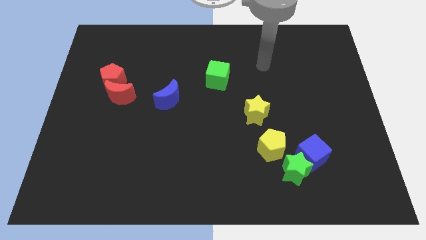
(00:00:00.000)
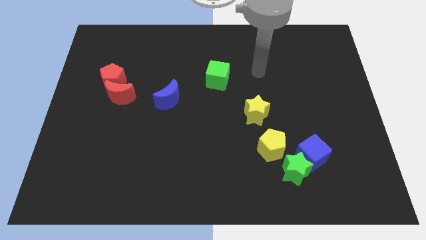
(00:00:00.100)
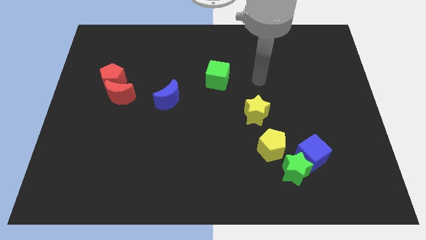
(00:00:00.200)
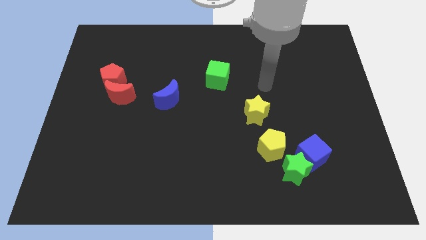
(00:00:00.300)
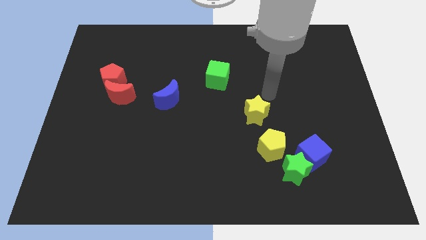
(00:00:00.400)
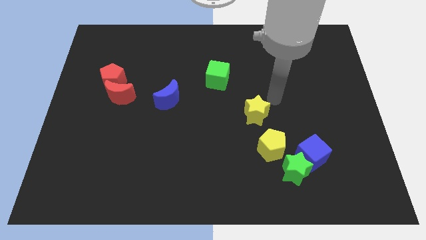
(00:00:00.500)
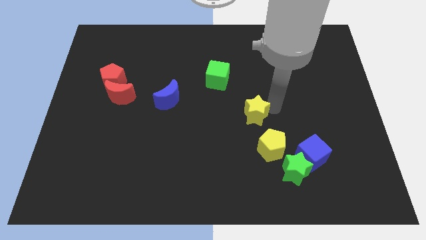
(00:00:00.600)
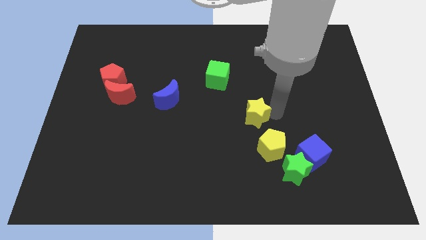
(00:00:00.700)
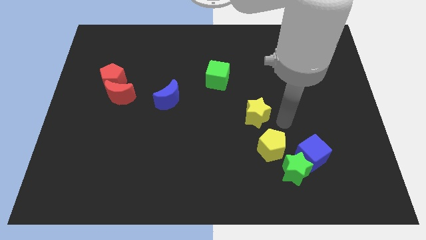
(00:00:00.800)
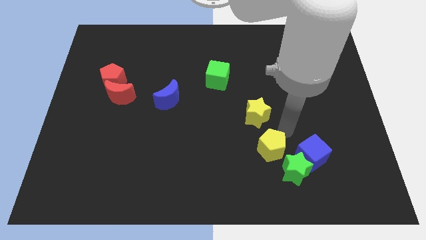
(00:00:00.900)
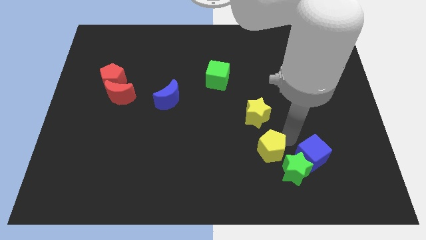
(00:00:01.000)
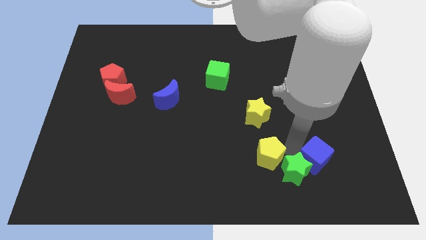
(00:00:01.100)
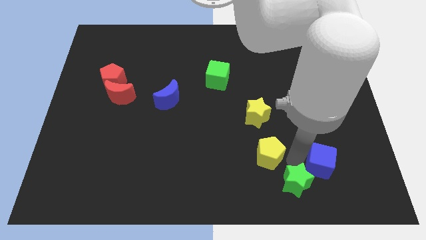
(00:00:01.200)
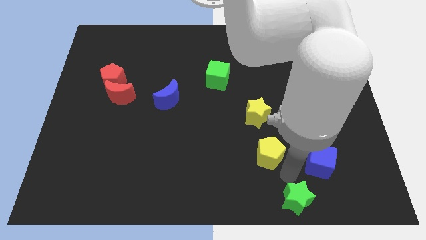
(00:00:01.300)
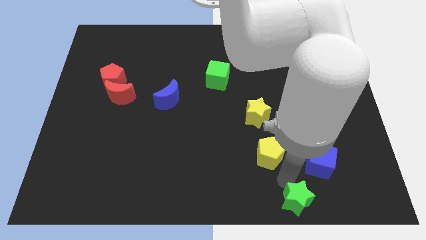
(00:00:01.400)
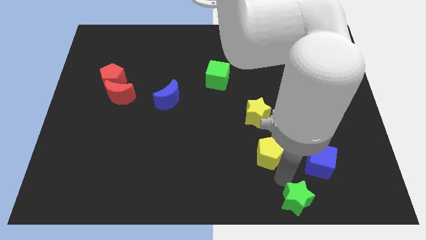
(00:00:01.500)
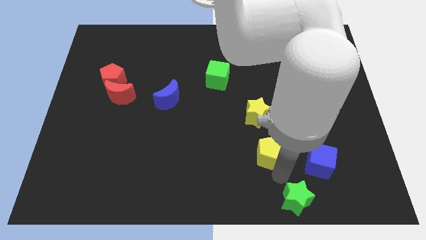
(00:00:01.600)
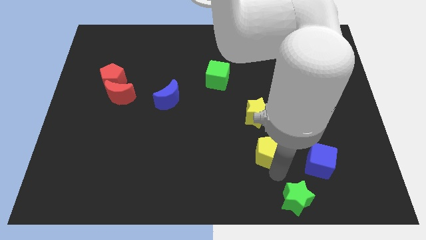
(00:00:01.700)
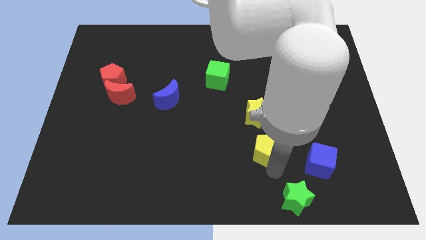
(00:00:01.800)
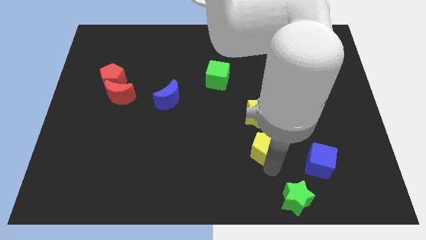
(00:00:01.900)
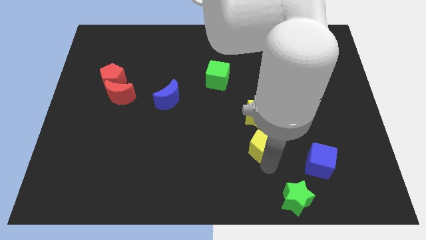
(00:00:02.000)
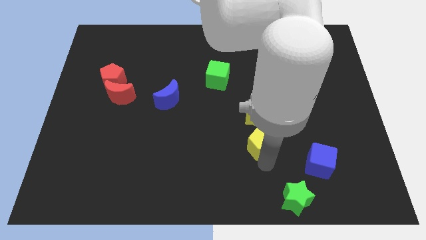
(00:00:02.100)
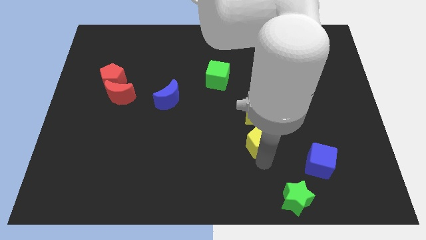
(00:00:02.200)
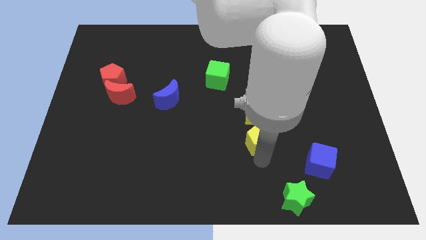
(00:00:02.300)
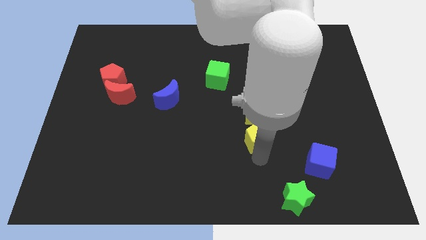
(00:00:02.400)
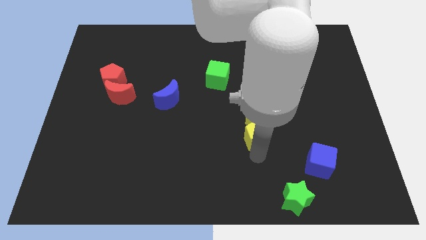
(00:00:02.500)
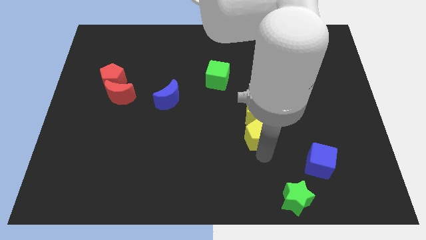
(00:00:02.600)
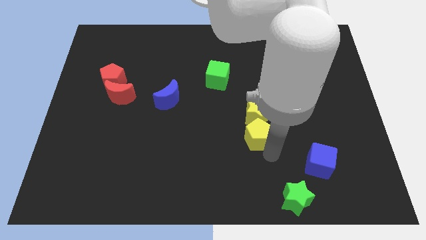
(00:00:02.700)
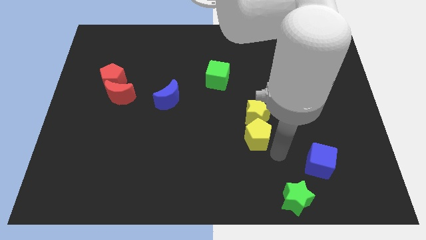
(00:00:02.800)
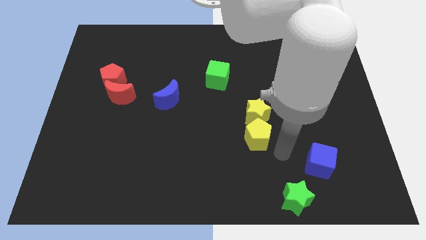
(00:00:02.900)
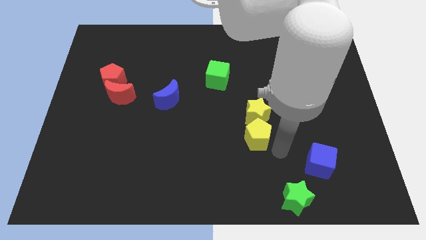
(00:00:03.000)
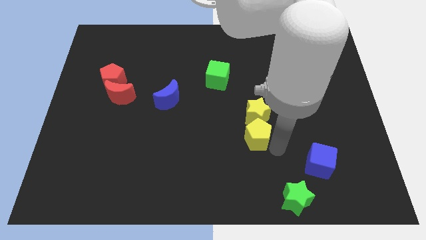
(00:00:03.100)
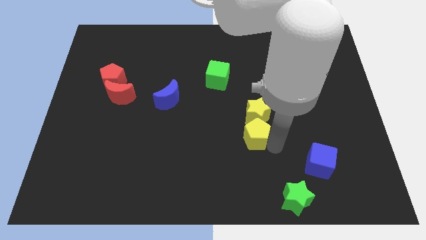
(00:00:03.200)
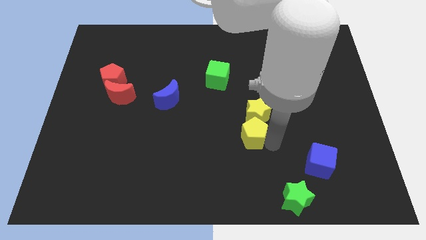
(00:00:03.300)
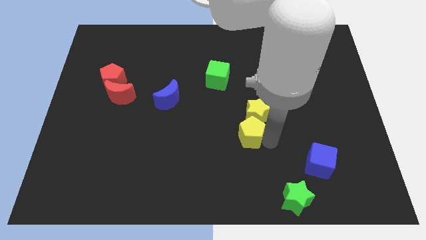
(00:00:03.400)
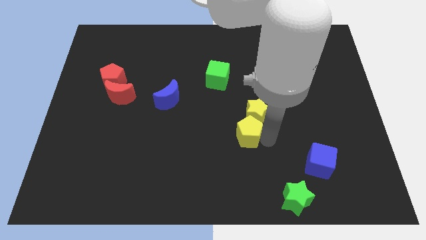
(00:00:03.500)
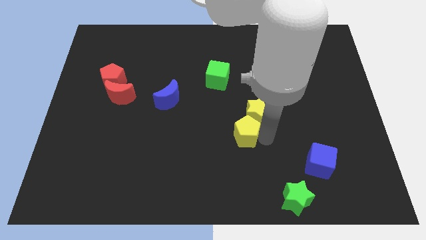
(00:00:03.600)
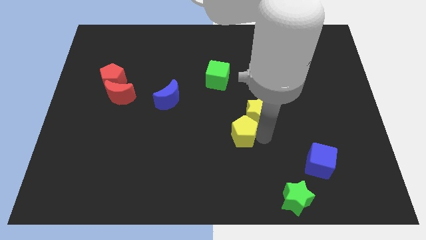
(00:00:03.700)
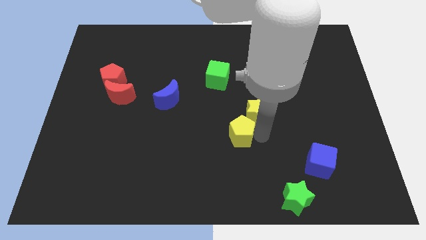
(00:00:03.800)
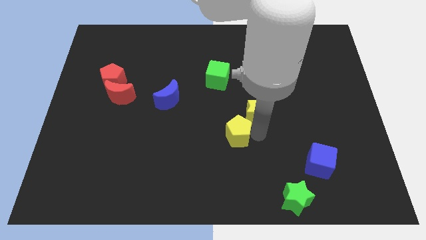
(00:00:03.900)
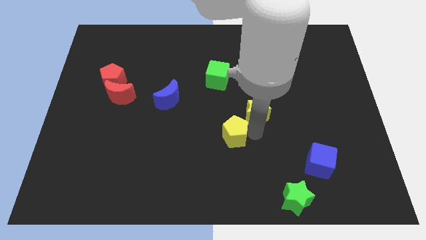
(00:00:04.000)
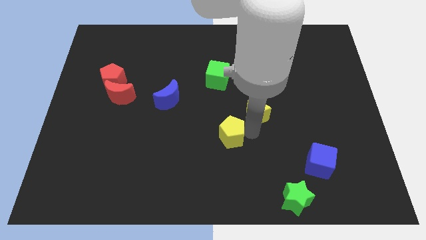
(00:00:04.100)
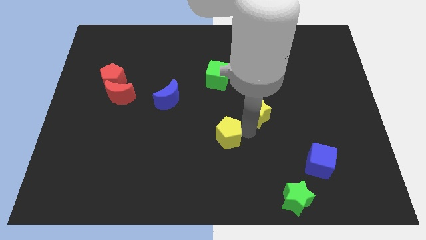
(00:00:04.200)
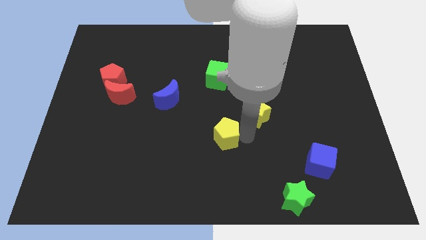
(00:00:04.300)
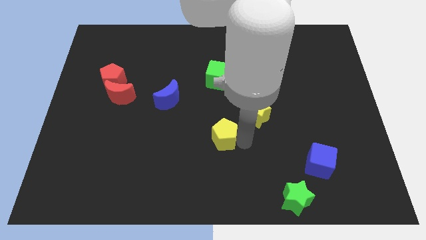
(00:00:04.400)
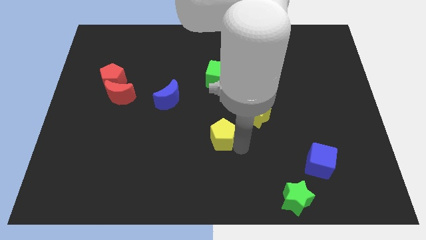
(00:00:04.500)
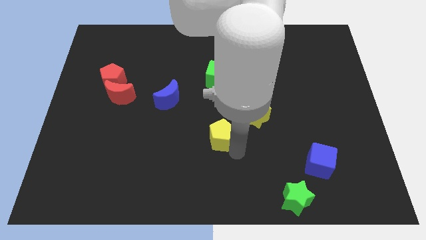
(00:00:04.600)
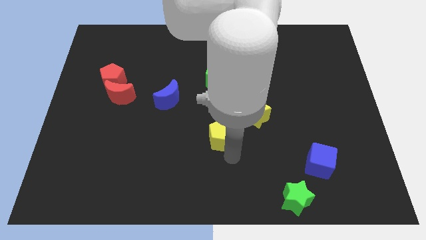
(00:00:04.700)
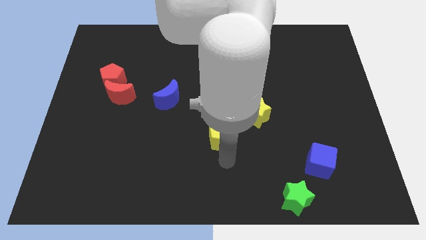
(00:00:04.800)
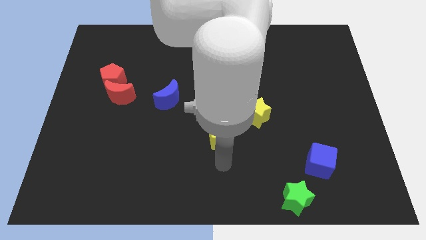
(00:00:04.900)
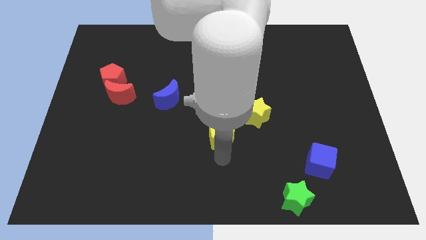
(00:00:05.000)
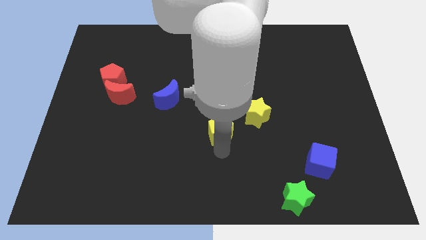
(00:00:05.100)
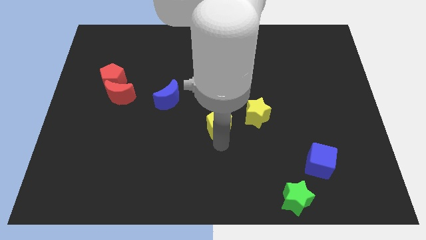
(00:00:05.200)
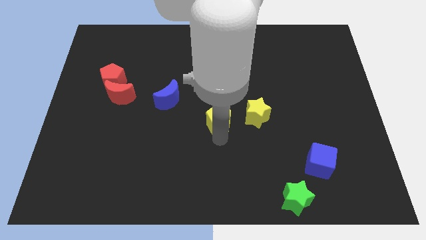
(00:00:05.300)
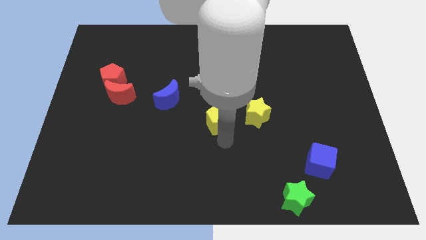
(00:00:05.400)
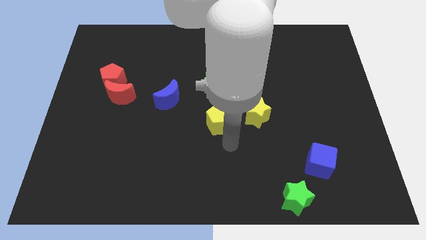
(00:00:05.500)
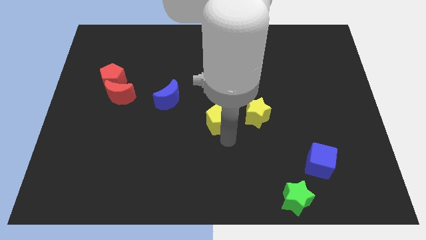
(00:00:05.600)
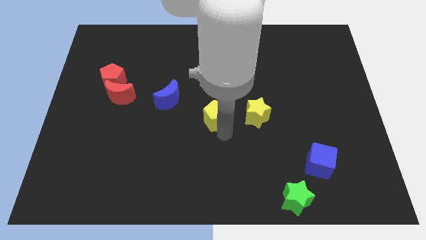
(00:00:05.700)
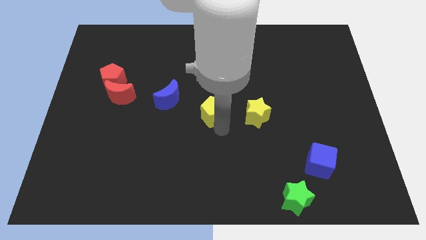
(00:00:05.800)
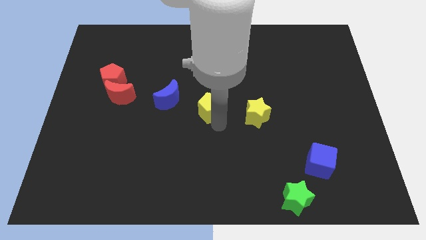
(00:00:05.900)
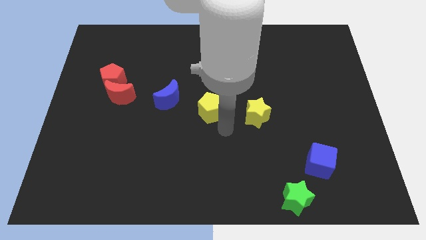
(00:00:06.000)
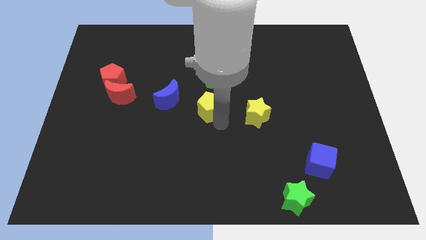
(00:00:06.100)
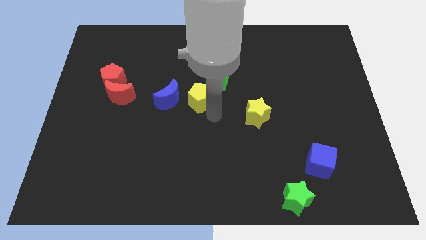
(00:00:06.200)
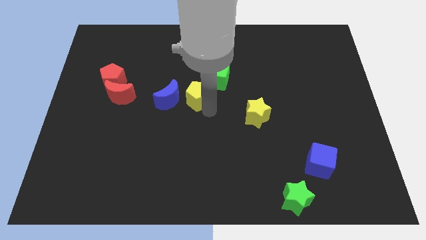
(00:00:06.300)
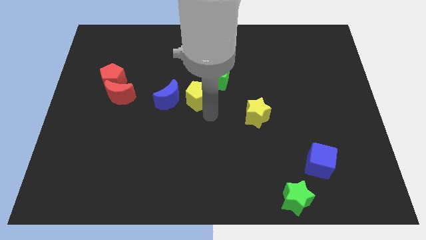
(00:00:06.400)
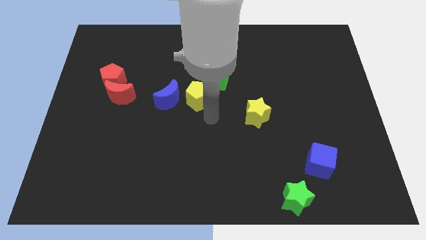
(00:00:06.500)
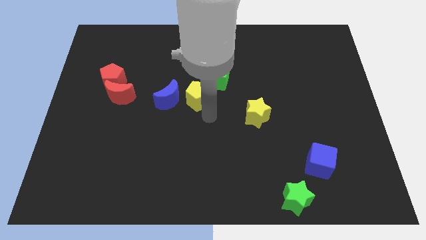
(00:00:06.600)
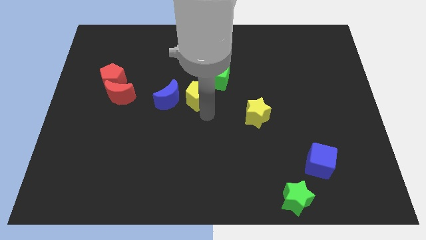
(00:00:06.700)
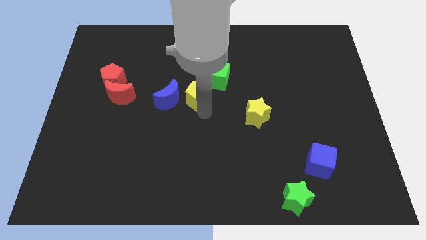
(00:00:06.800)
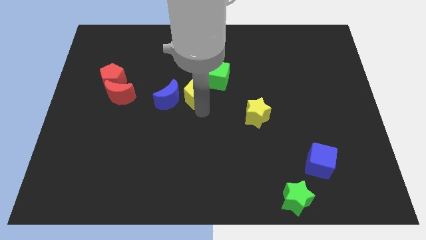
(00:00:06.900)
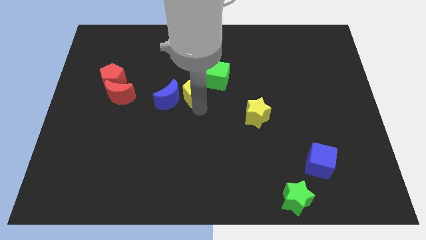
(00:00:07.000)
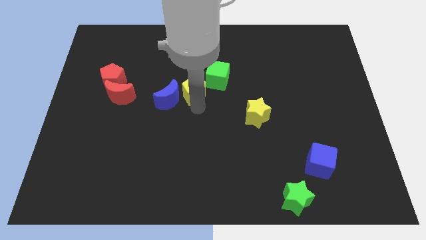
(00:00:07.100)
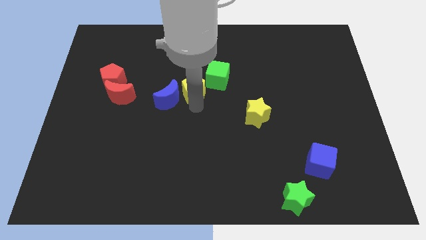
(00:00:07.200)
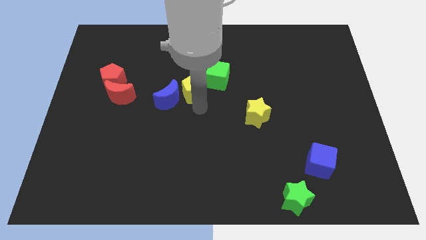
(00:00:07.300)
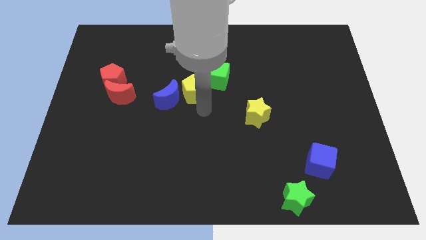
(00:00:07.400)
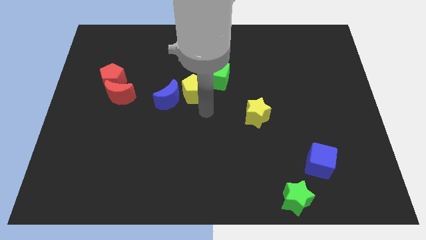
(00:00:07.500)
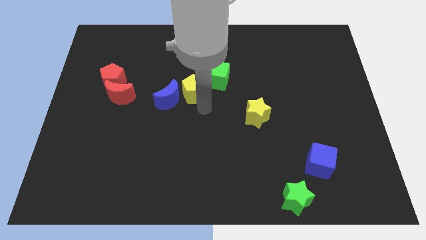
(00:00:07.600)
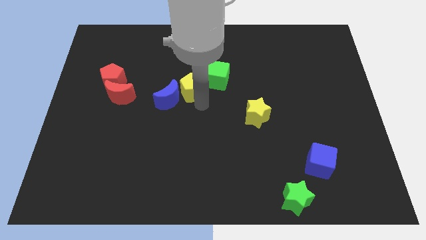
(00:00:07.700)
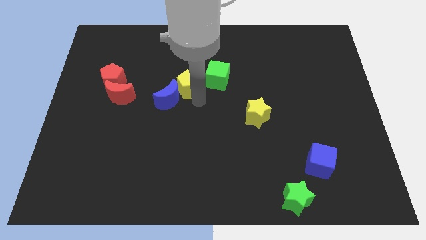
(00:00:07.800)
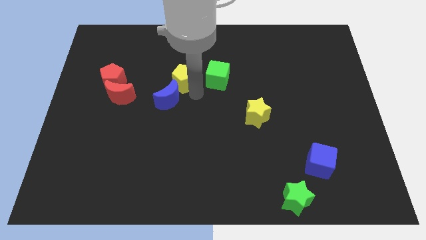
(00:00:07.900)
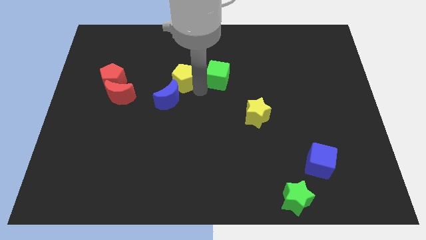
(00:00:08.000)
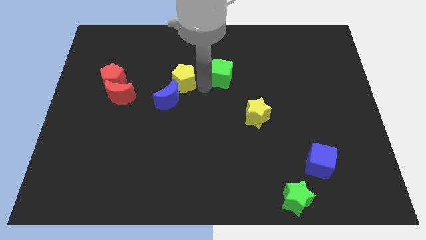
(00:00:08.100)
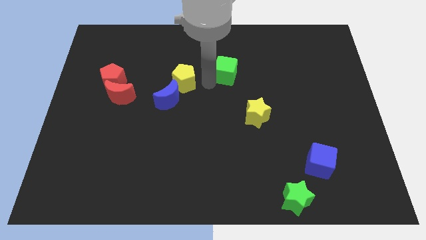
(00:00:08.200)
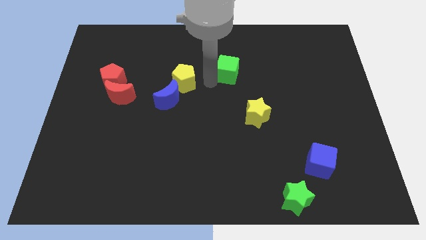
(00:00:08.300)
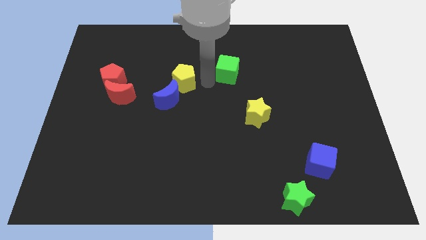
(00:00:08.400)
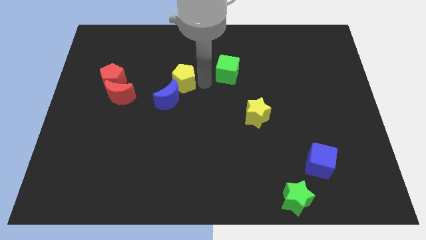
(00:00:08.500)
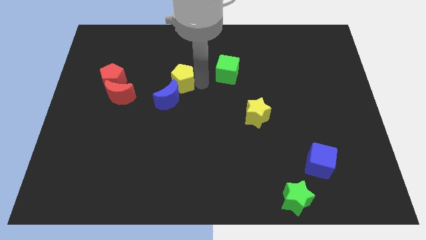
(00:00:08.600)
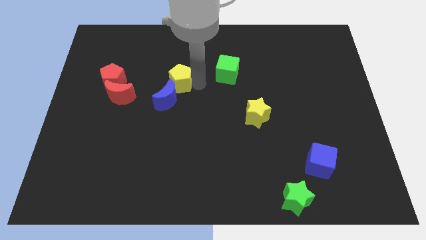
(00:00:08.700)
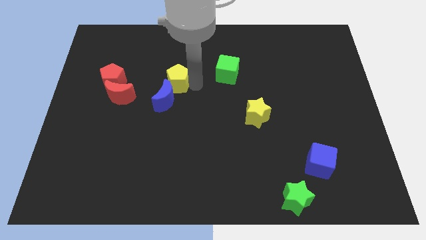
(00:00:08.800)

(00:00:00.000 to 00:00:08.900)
push the yellow pentagon right of the red pentagon
